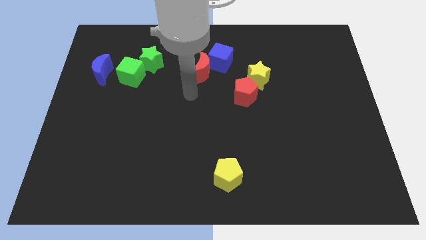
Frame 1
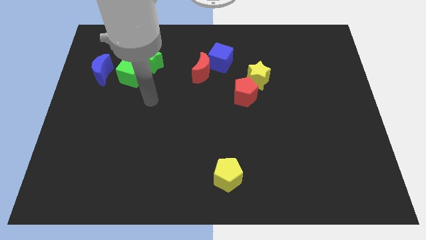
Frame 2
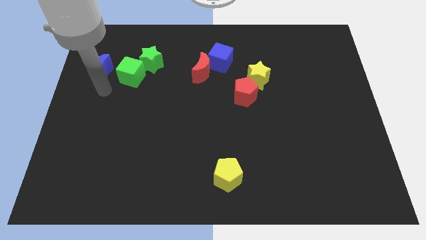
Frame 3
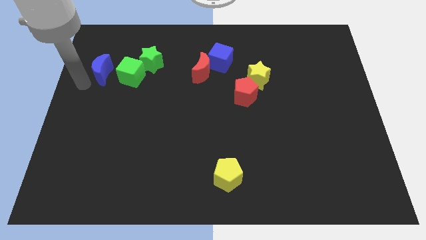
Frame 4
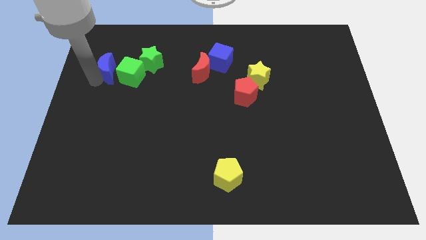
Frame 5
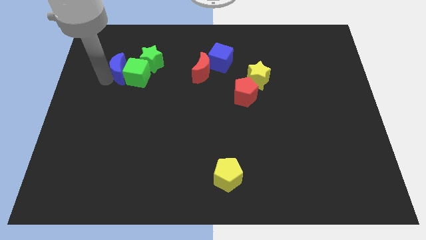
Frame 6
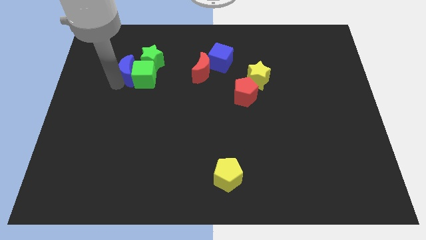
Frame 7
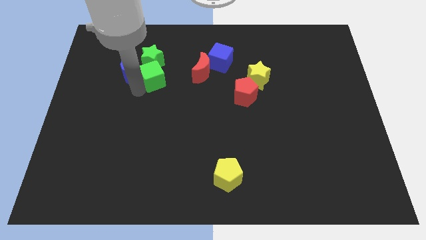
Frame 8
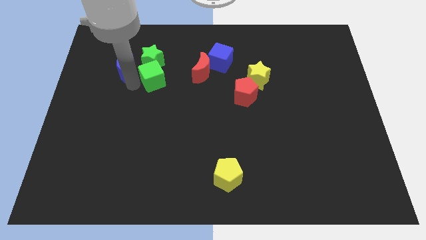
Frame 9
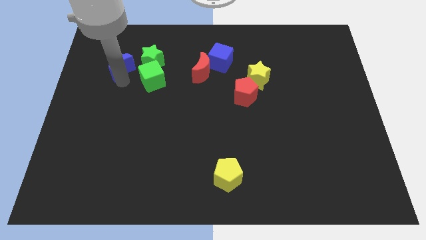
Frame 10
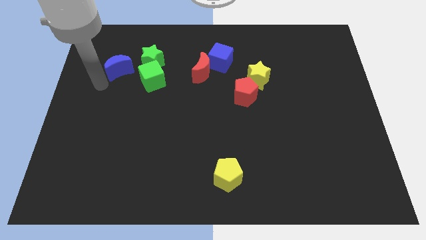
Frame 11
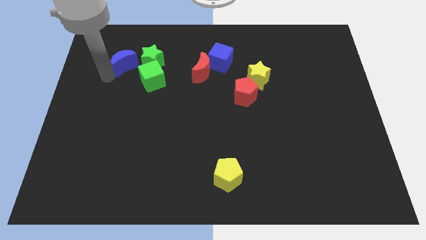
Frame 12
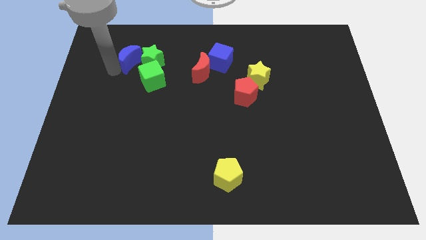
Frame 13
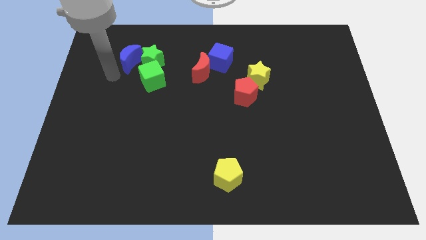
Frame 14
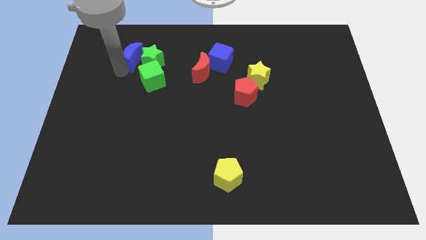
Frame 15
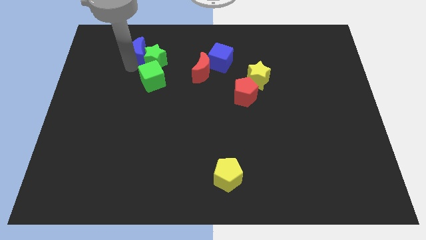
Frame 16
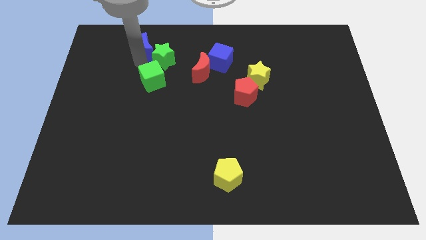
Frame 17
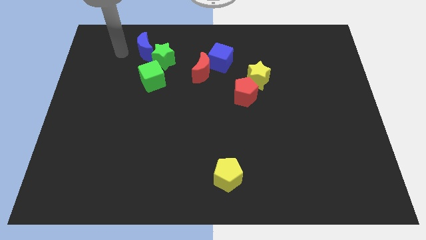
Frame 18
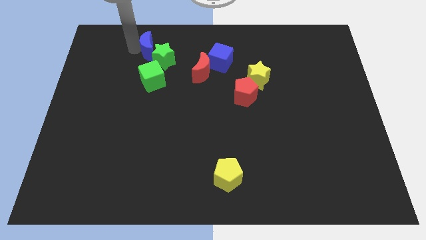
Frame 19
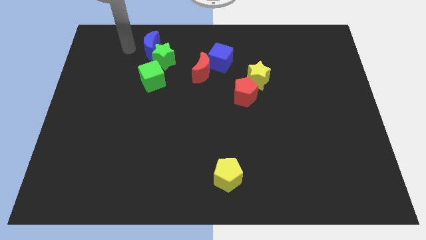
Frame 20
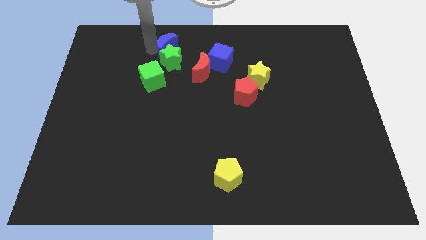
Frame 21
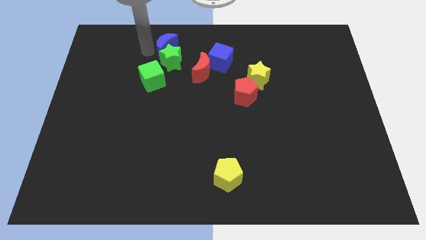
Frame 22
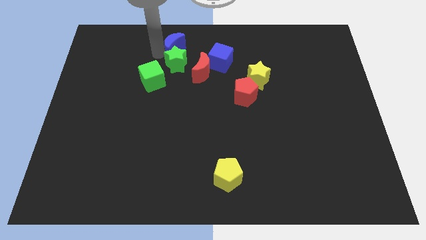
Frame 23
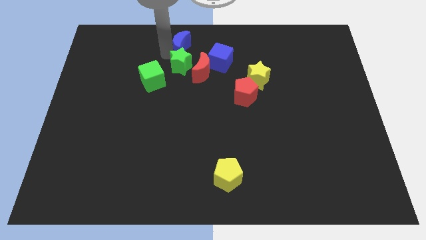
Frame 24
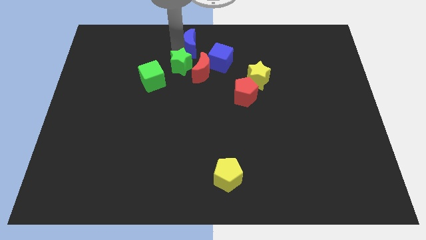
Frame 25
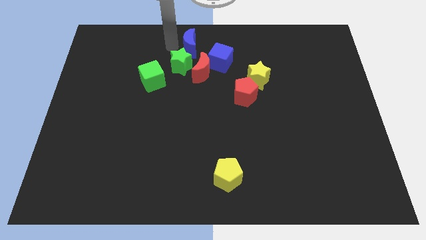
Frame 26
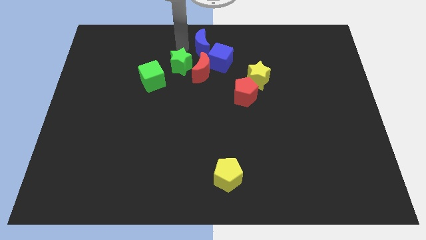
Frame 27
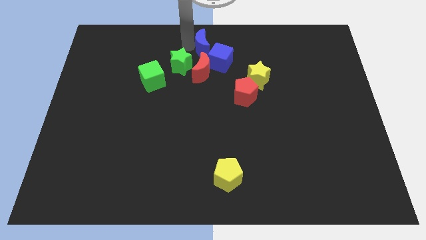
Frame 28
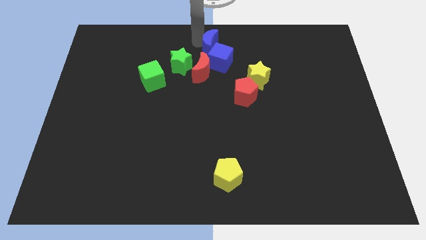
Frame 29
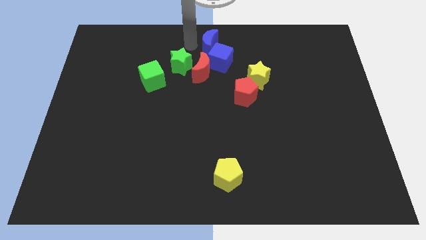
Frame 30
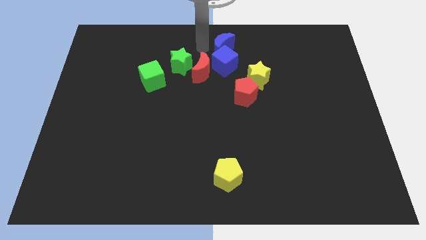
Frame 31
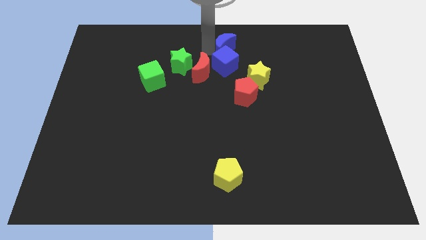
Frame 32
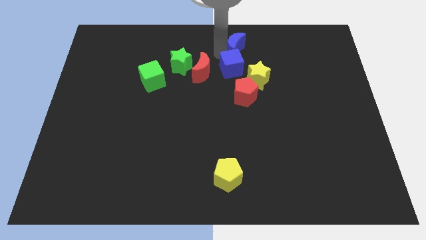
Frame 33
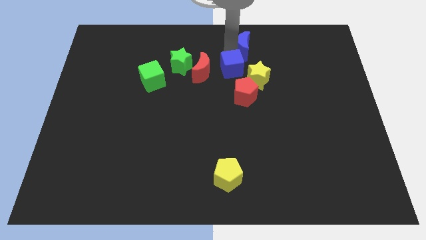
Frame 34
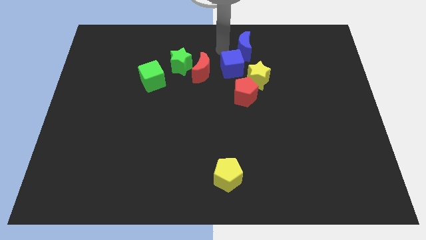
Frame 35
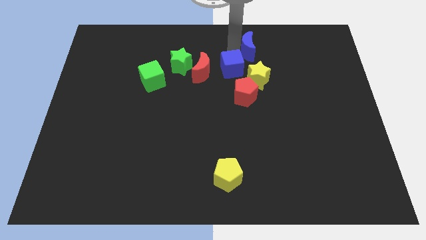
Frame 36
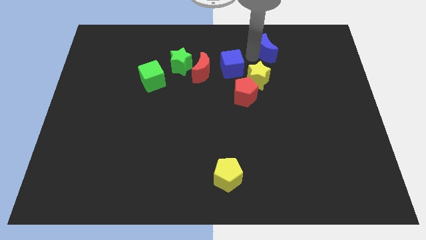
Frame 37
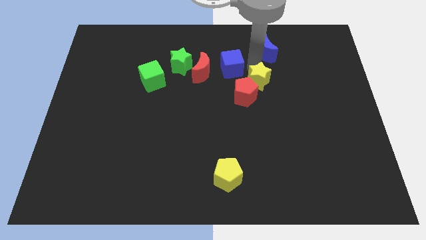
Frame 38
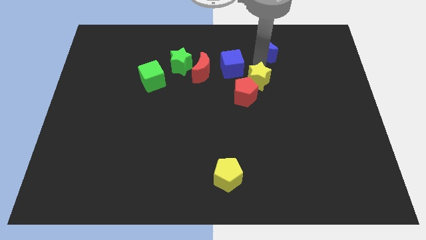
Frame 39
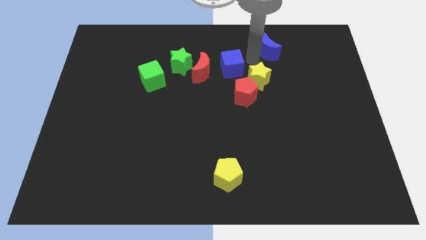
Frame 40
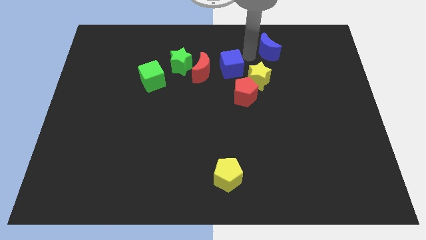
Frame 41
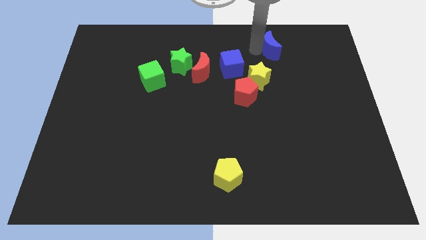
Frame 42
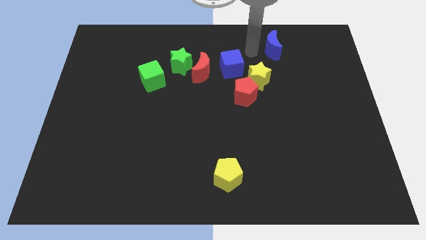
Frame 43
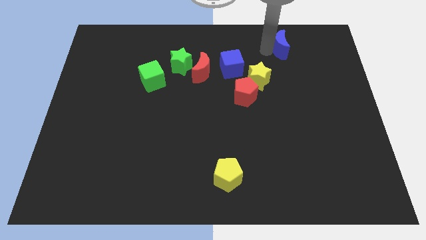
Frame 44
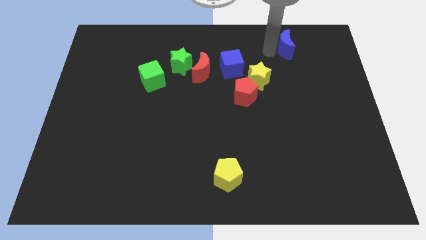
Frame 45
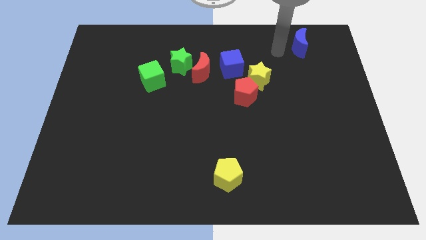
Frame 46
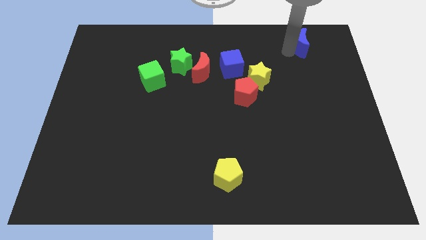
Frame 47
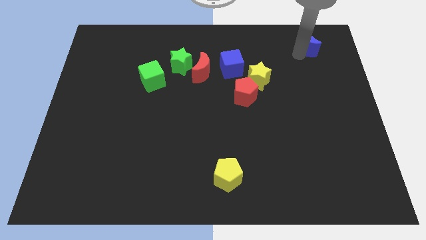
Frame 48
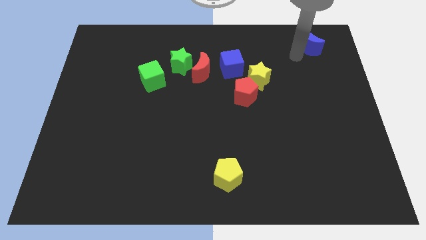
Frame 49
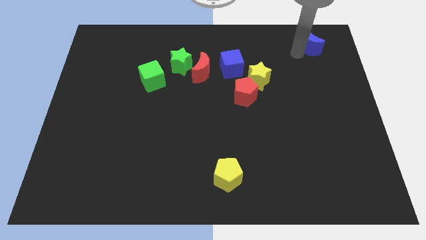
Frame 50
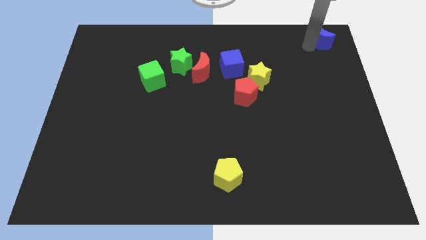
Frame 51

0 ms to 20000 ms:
slide the blue moon to the top right of the board

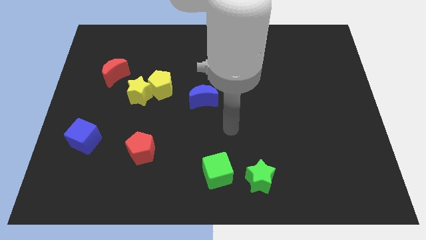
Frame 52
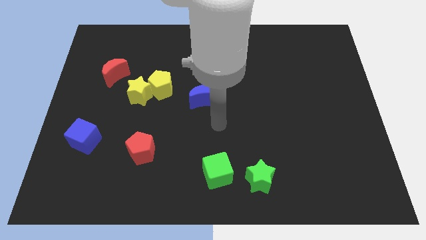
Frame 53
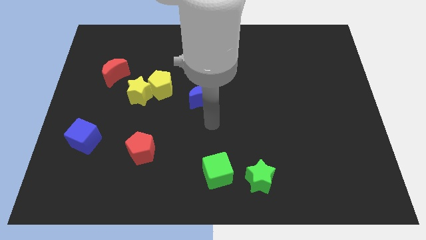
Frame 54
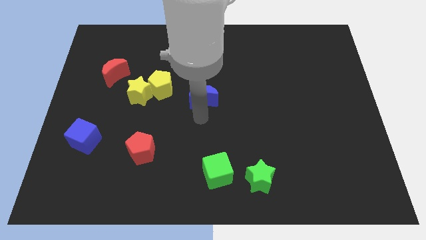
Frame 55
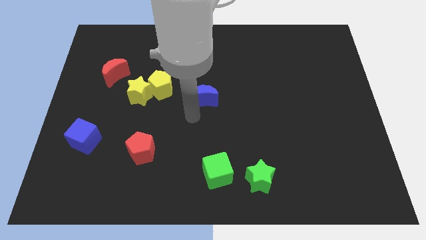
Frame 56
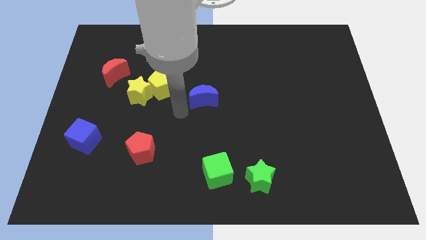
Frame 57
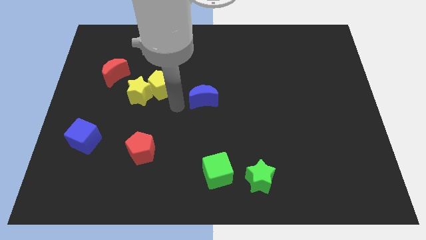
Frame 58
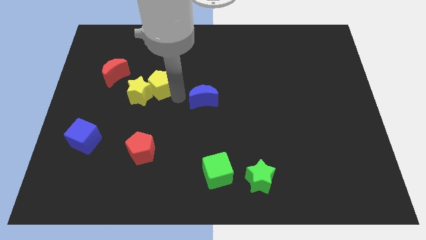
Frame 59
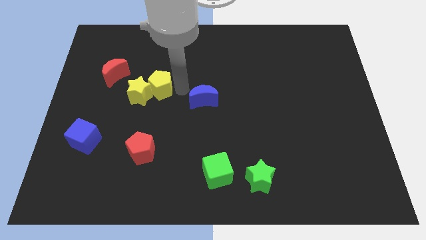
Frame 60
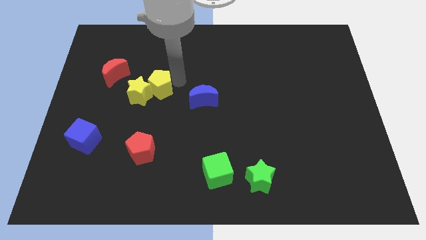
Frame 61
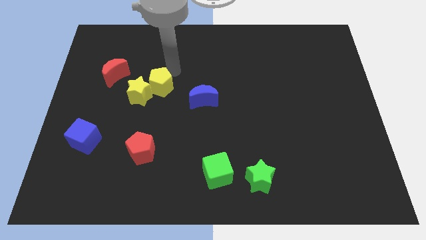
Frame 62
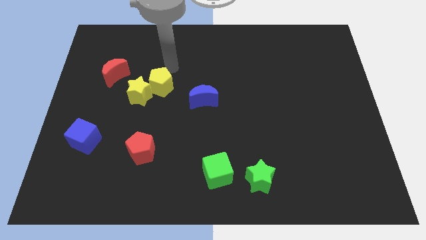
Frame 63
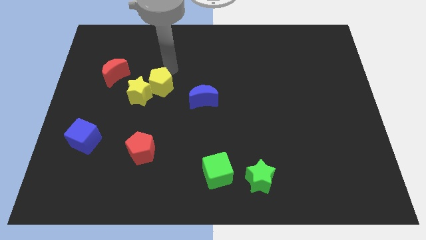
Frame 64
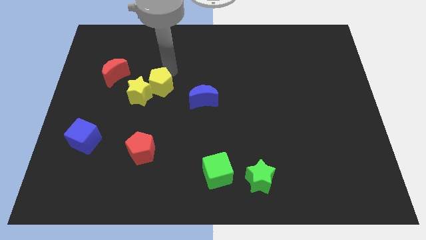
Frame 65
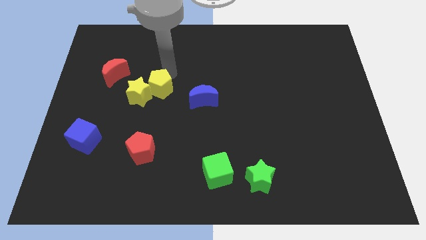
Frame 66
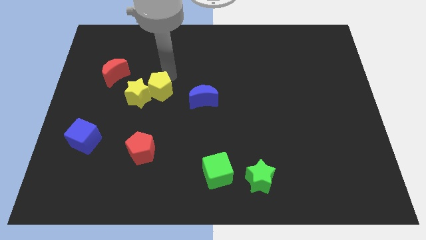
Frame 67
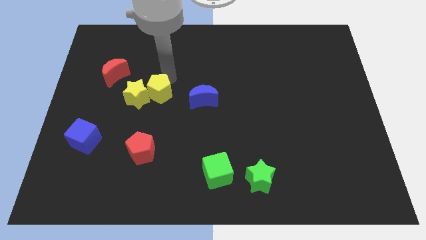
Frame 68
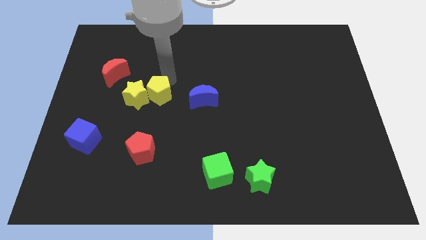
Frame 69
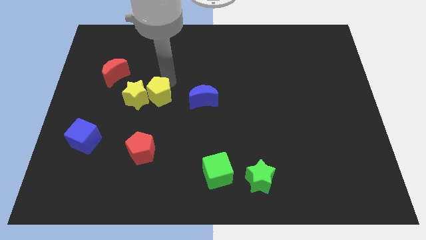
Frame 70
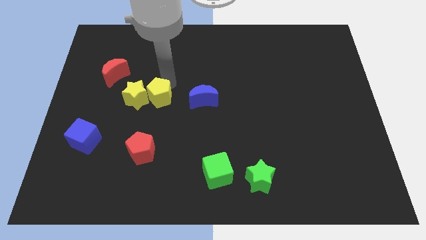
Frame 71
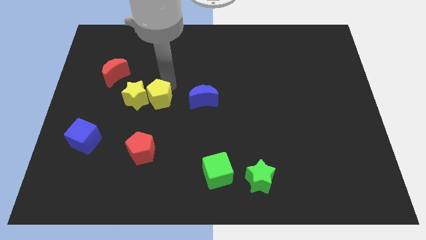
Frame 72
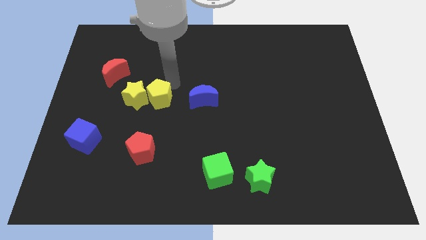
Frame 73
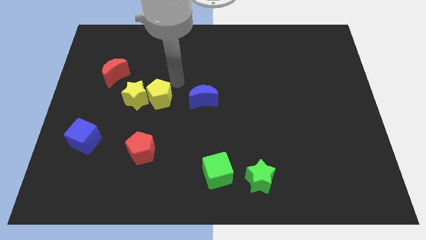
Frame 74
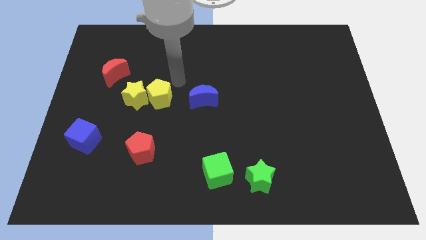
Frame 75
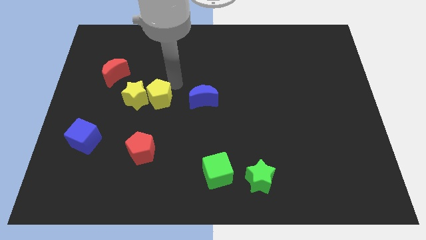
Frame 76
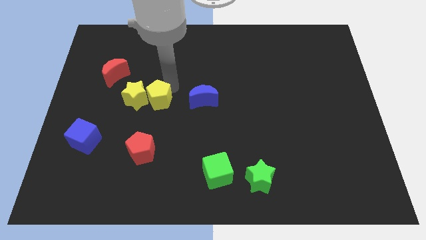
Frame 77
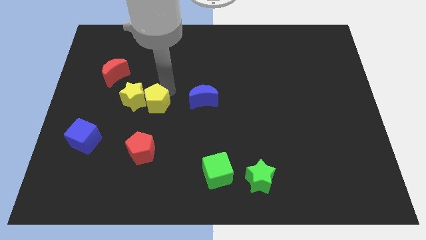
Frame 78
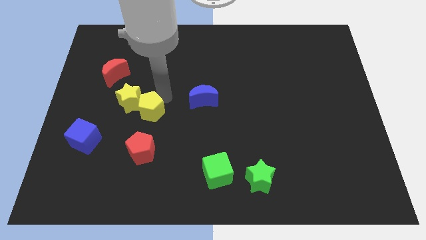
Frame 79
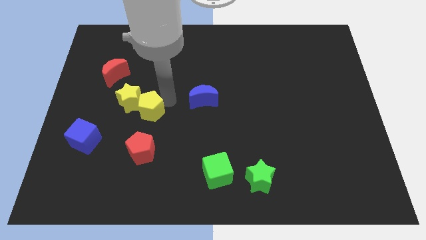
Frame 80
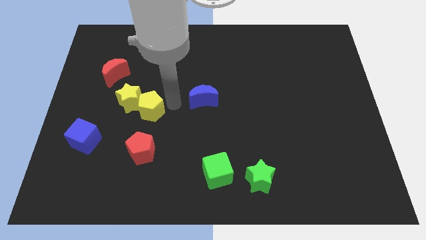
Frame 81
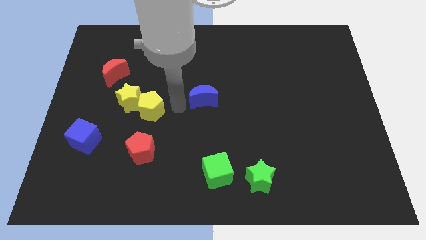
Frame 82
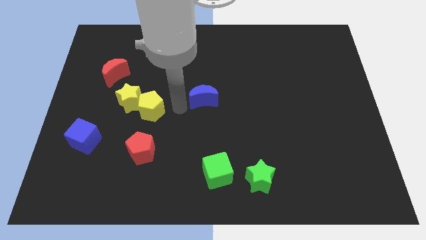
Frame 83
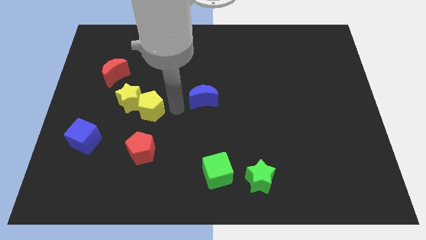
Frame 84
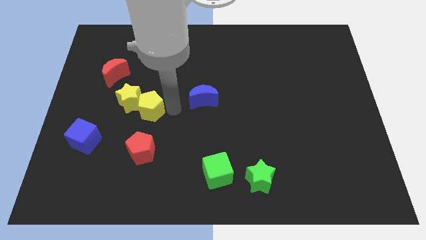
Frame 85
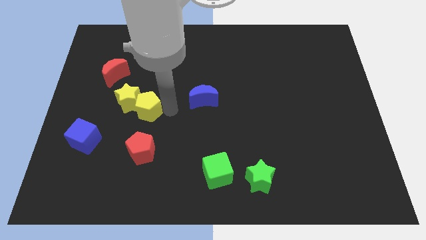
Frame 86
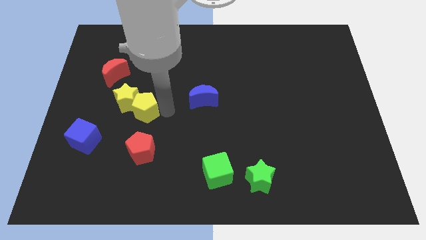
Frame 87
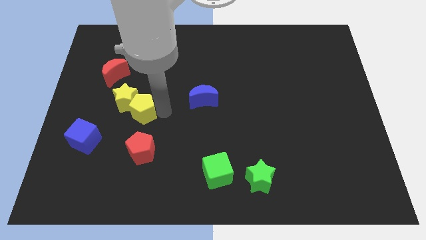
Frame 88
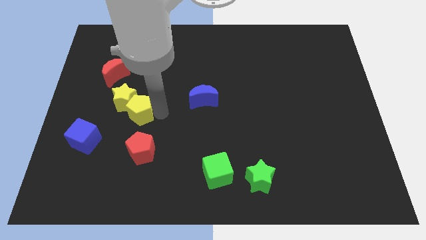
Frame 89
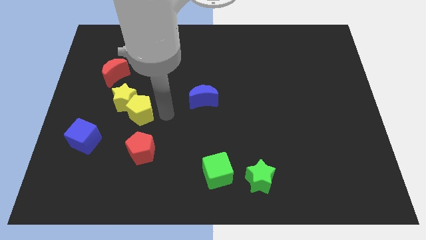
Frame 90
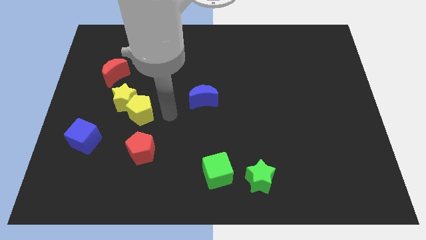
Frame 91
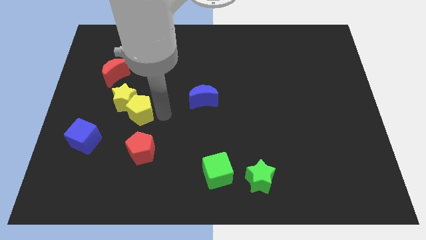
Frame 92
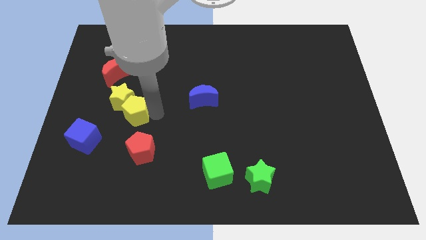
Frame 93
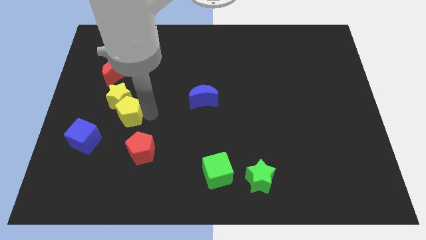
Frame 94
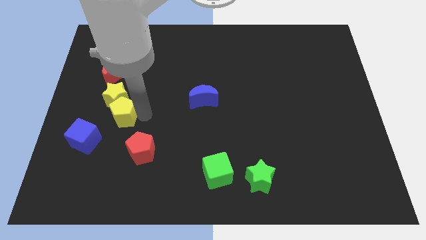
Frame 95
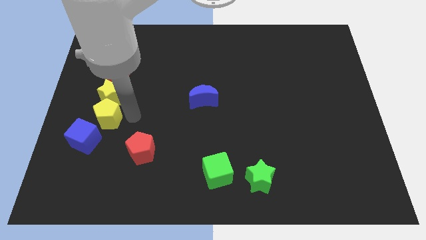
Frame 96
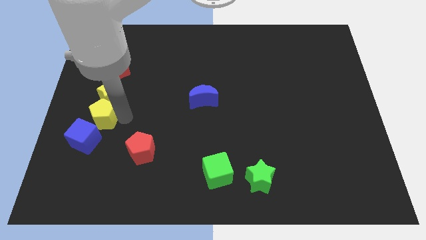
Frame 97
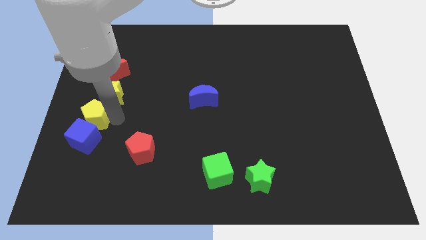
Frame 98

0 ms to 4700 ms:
put the yellow pentagon to the center left
